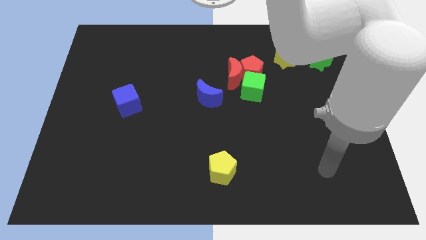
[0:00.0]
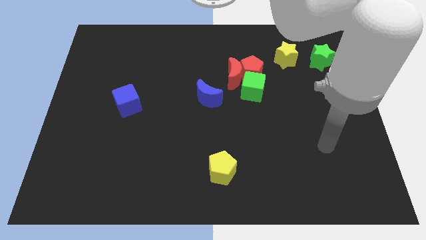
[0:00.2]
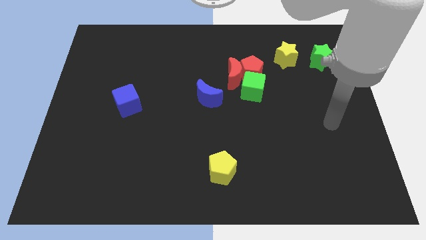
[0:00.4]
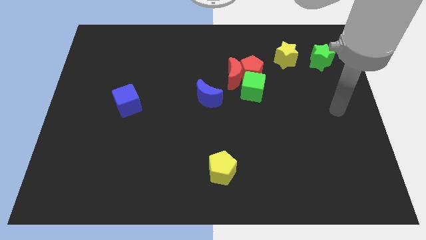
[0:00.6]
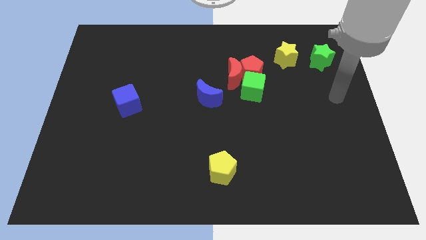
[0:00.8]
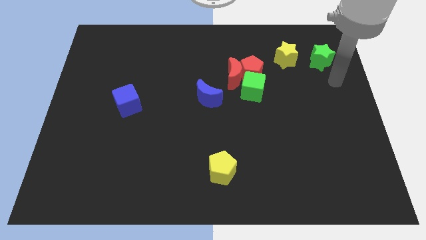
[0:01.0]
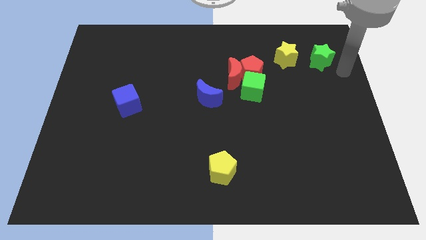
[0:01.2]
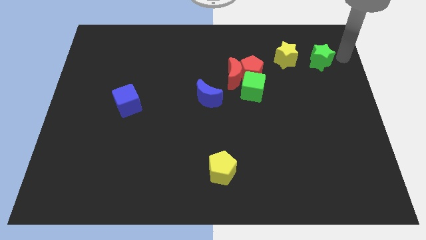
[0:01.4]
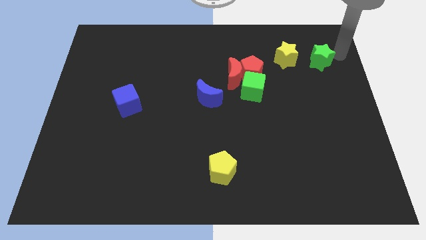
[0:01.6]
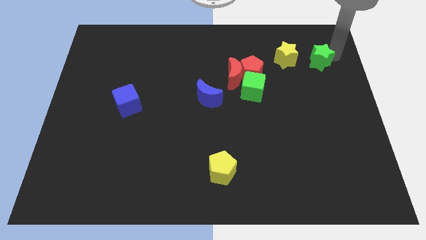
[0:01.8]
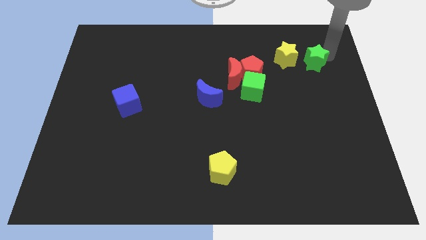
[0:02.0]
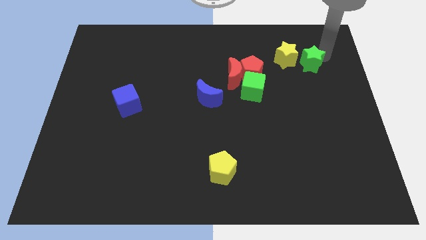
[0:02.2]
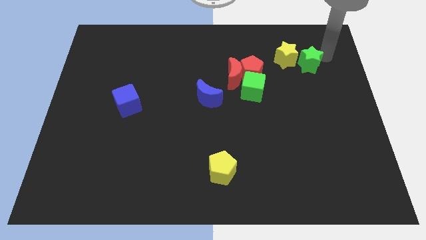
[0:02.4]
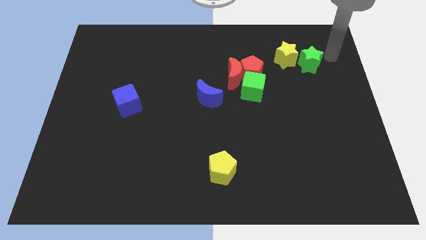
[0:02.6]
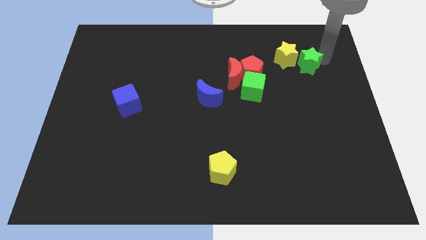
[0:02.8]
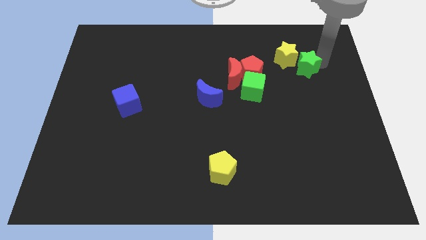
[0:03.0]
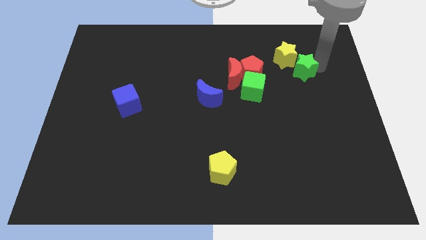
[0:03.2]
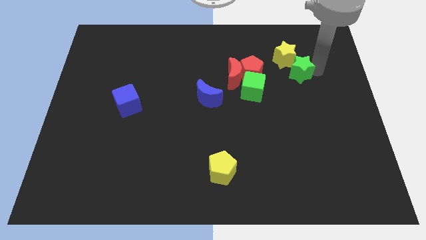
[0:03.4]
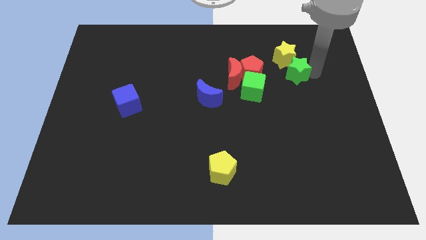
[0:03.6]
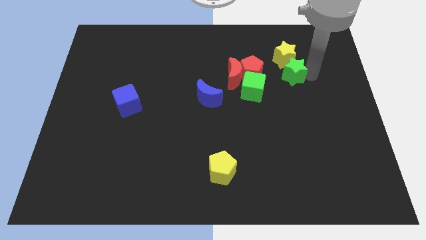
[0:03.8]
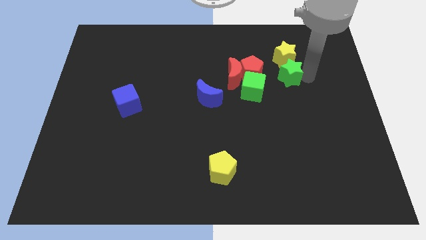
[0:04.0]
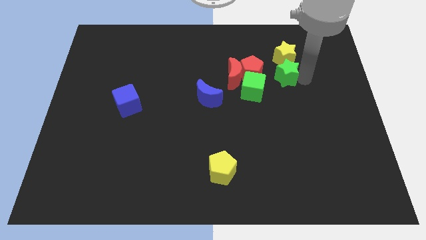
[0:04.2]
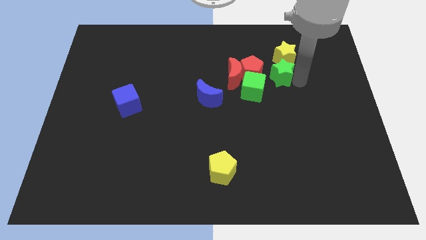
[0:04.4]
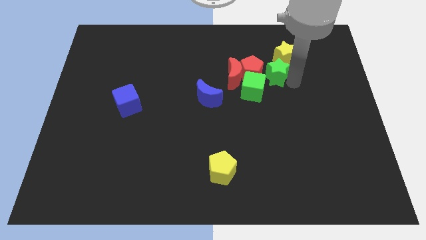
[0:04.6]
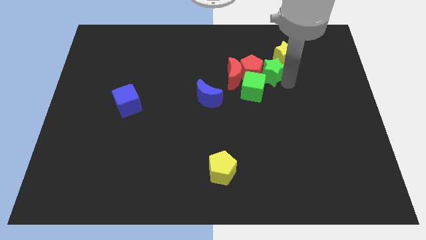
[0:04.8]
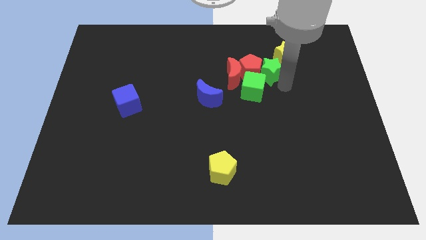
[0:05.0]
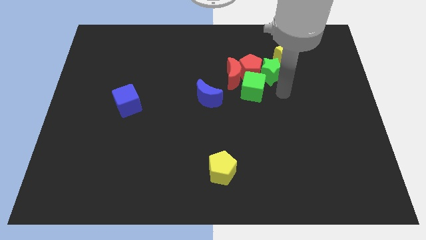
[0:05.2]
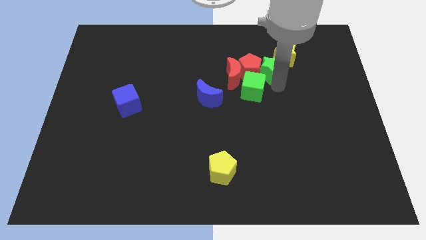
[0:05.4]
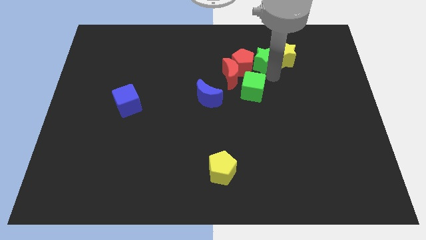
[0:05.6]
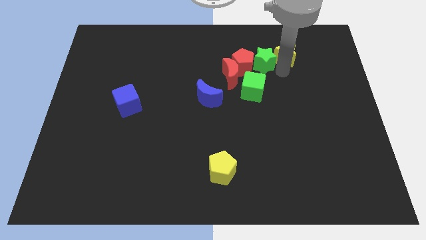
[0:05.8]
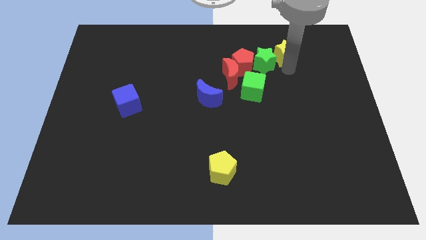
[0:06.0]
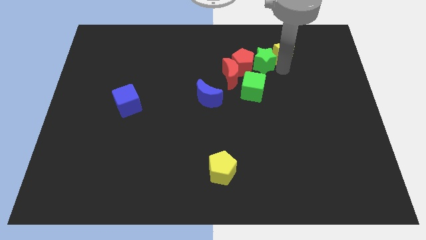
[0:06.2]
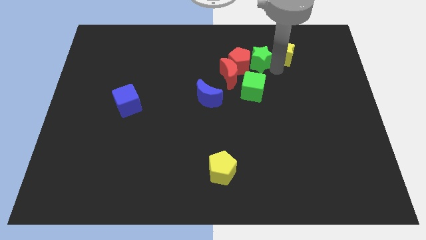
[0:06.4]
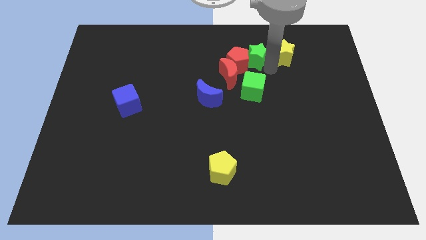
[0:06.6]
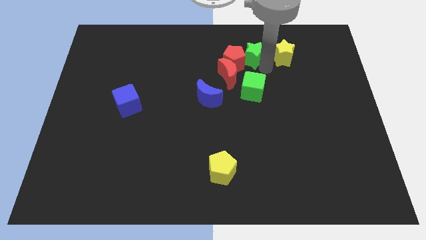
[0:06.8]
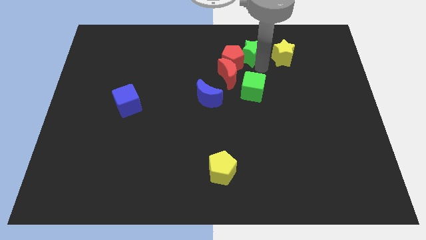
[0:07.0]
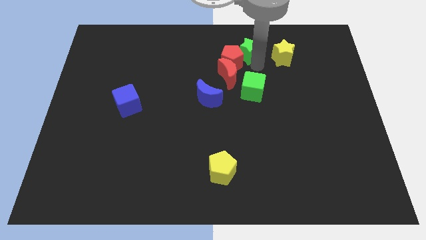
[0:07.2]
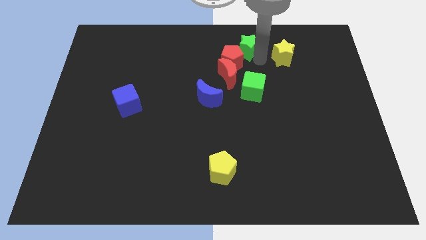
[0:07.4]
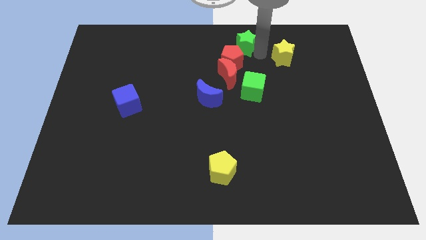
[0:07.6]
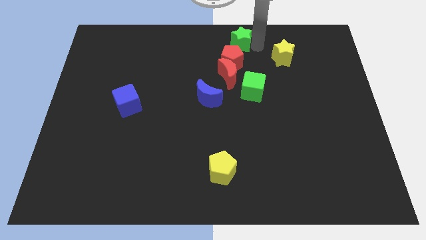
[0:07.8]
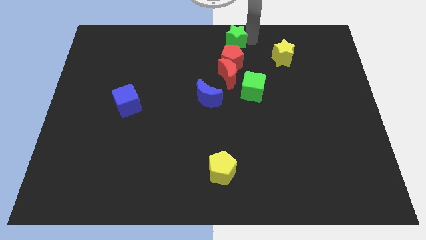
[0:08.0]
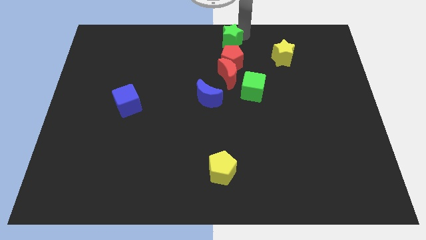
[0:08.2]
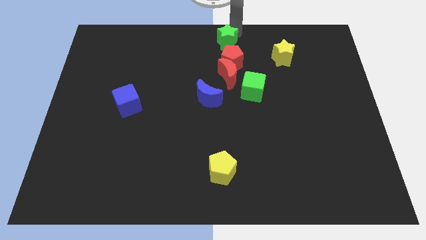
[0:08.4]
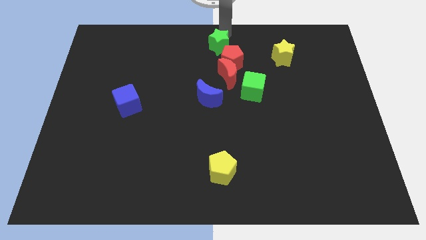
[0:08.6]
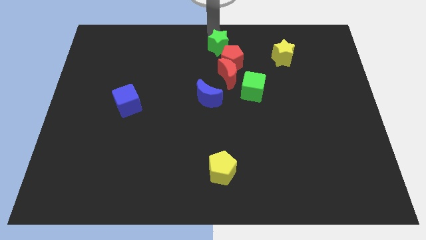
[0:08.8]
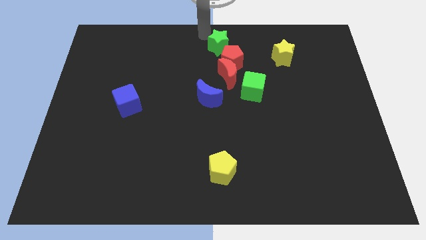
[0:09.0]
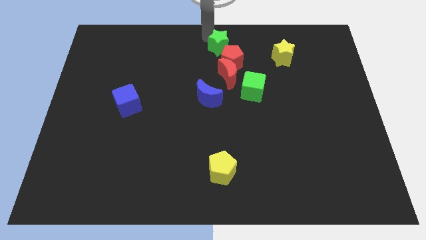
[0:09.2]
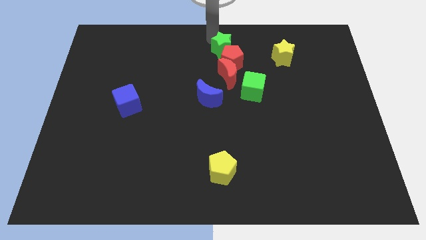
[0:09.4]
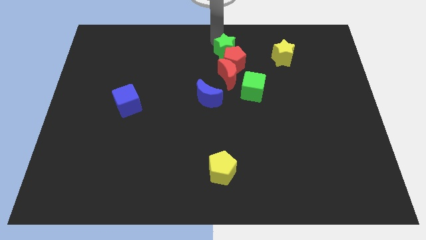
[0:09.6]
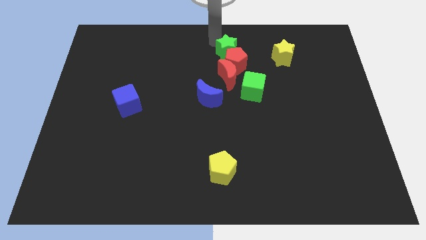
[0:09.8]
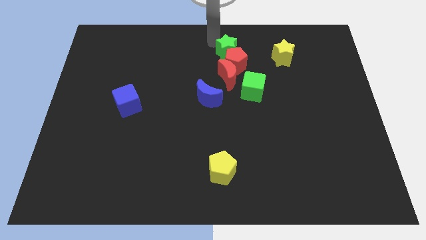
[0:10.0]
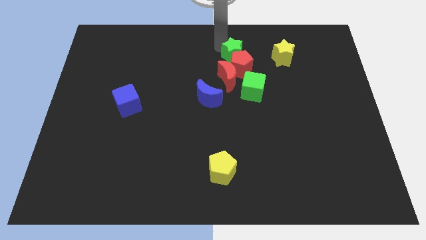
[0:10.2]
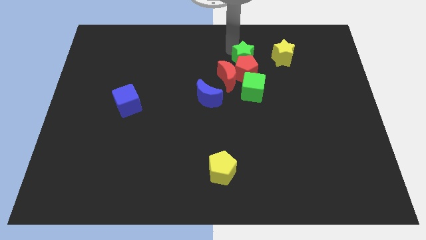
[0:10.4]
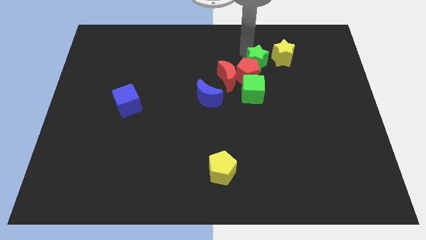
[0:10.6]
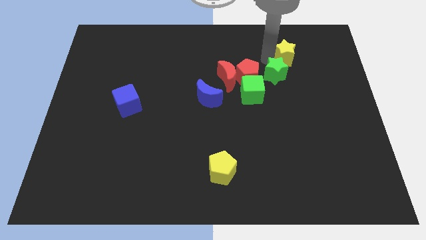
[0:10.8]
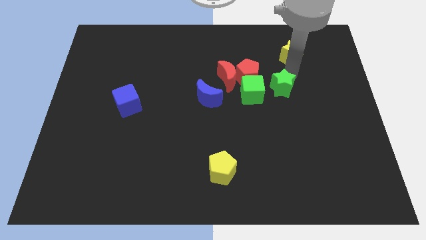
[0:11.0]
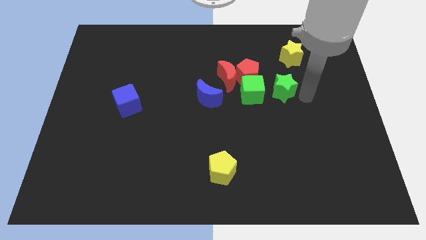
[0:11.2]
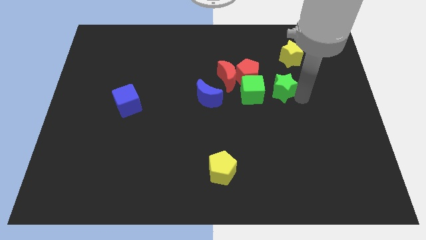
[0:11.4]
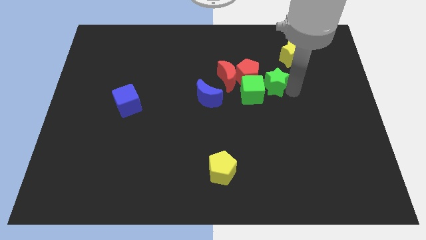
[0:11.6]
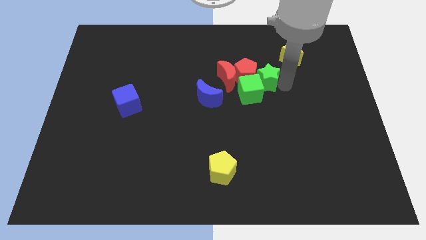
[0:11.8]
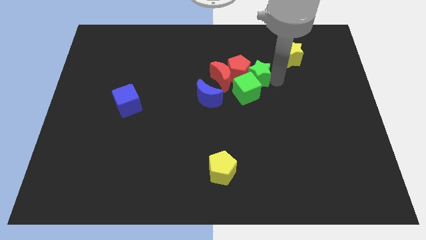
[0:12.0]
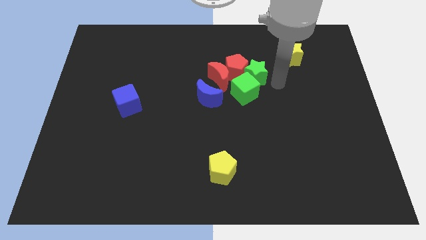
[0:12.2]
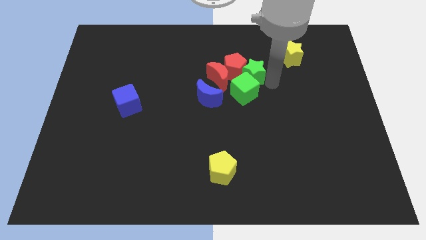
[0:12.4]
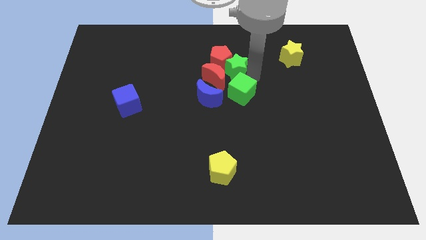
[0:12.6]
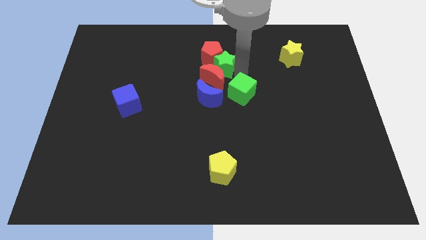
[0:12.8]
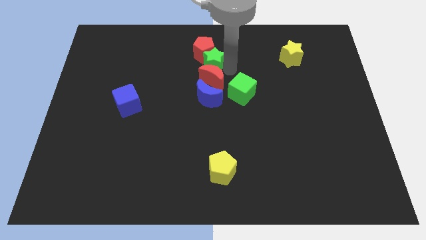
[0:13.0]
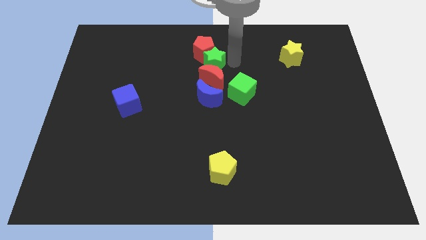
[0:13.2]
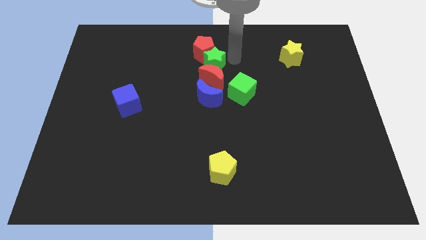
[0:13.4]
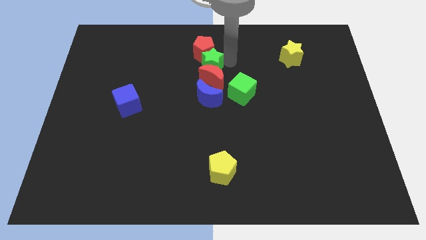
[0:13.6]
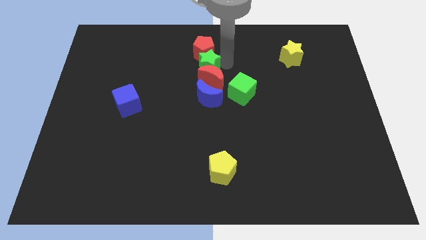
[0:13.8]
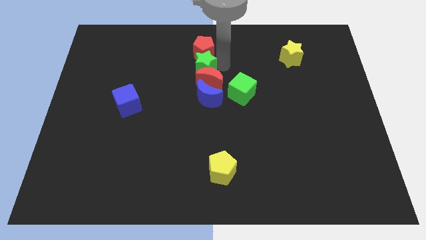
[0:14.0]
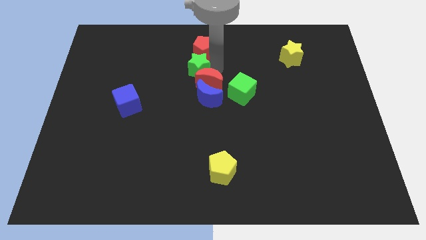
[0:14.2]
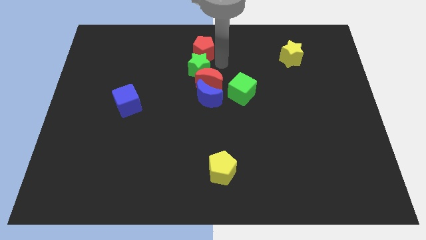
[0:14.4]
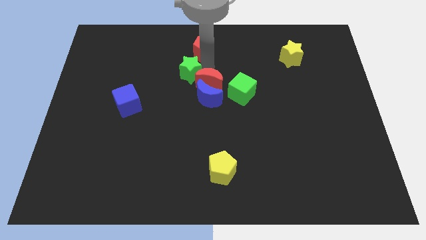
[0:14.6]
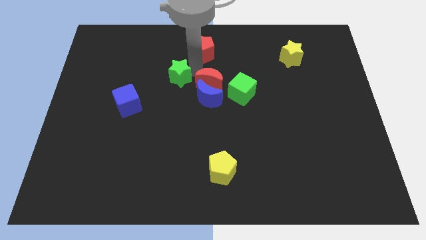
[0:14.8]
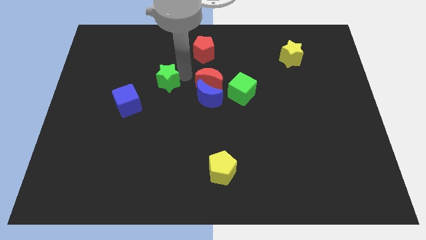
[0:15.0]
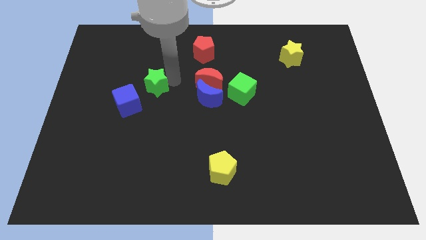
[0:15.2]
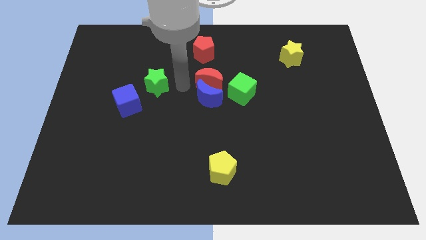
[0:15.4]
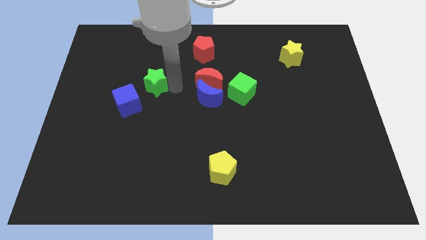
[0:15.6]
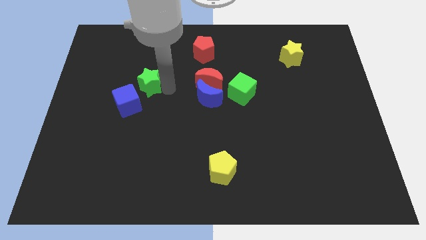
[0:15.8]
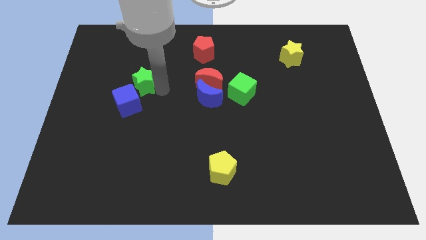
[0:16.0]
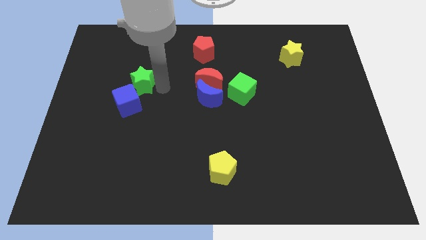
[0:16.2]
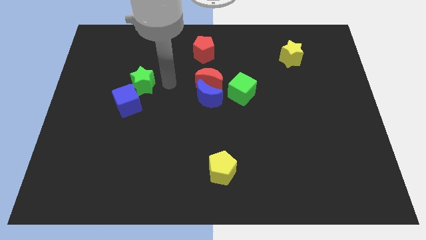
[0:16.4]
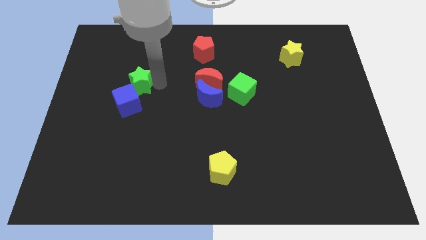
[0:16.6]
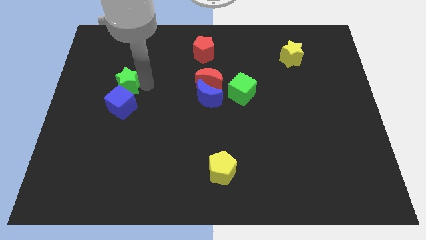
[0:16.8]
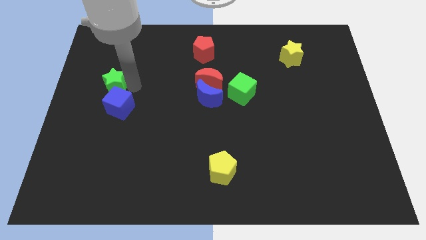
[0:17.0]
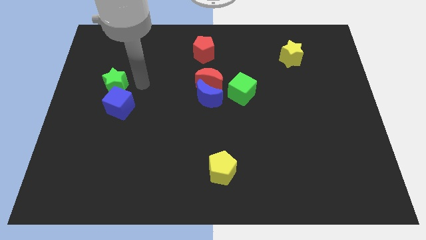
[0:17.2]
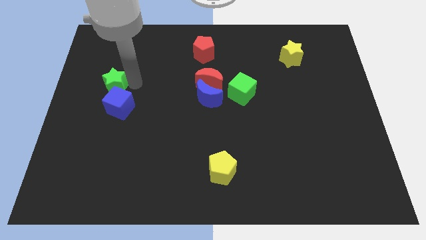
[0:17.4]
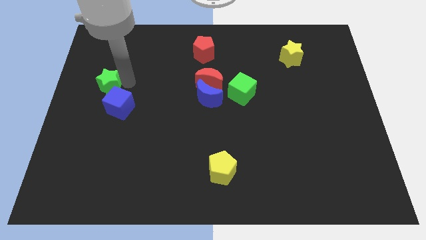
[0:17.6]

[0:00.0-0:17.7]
move the green star to the left side of the board
